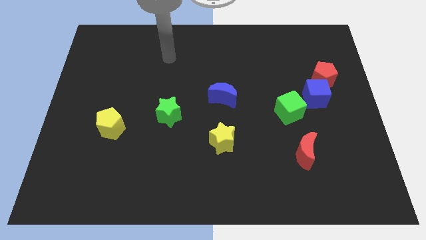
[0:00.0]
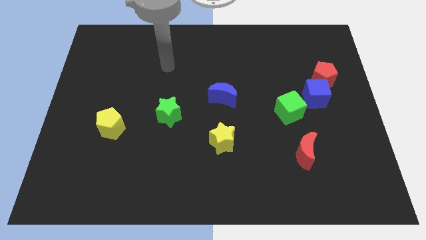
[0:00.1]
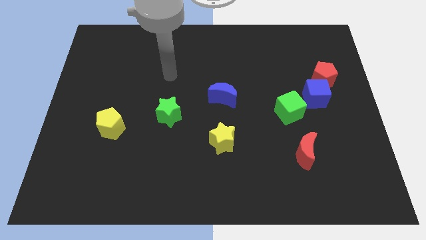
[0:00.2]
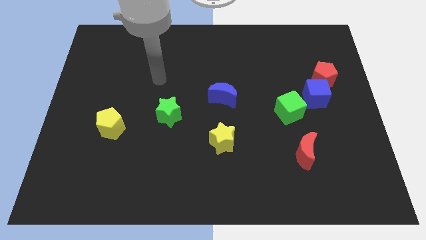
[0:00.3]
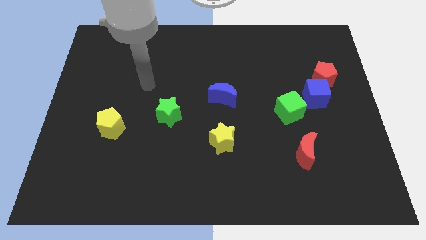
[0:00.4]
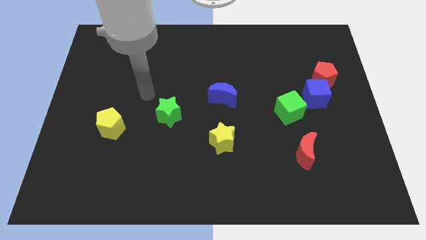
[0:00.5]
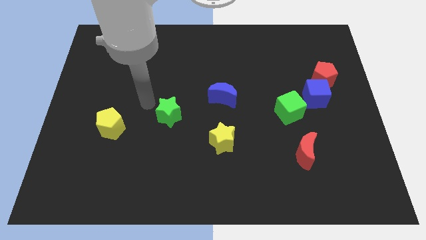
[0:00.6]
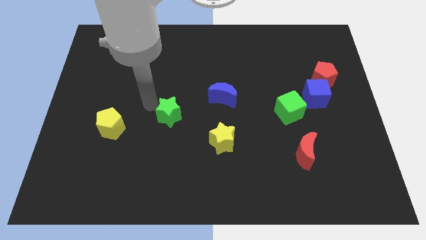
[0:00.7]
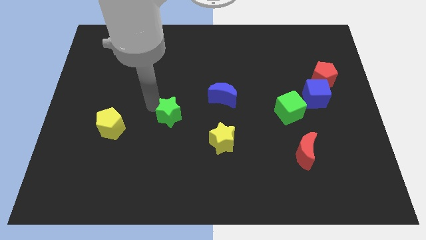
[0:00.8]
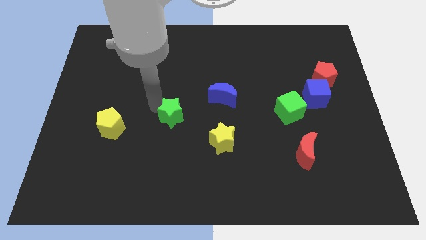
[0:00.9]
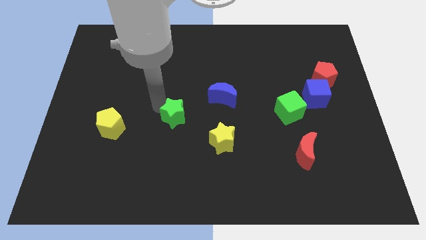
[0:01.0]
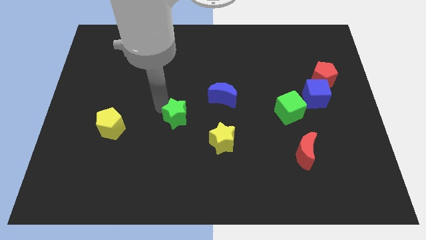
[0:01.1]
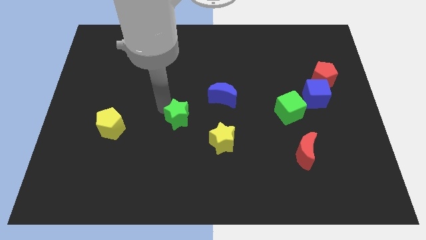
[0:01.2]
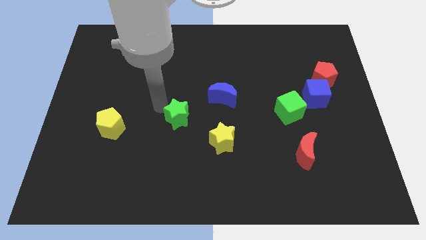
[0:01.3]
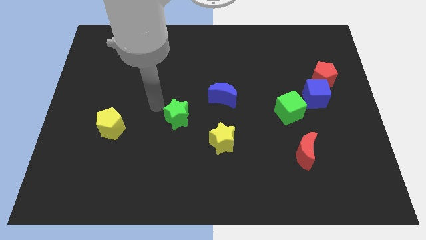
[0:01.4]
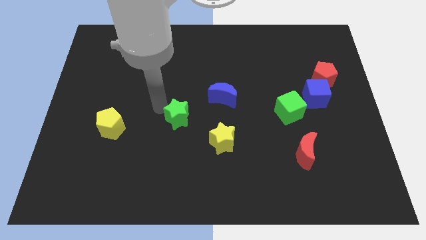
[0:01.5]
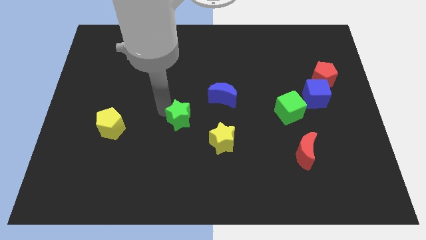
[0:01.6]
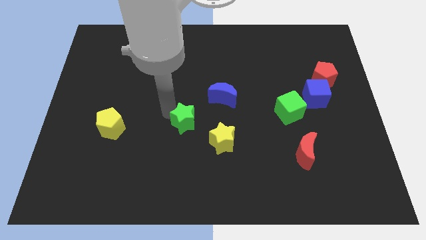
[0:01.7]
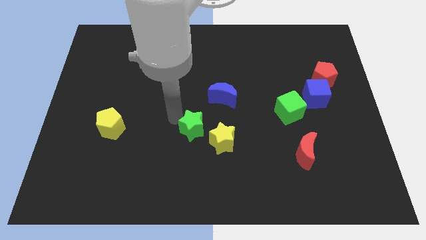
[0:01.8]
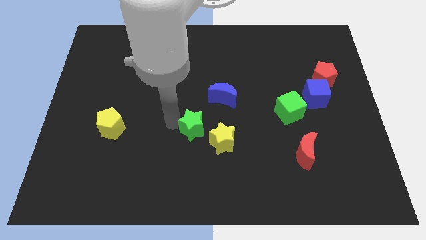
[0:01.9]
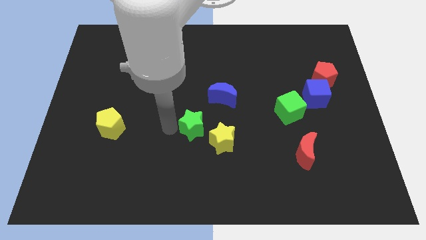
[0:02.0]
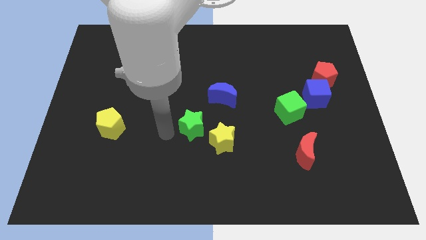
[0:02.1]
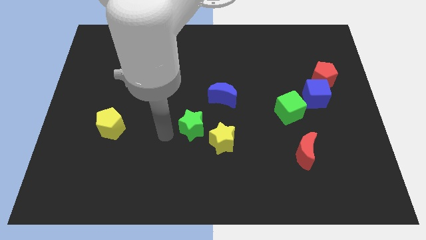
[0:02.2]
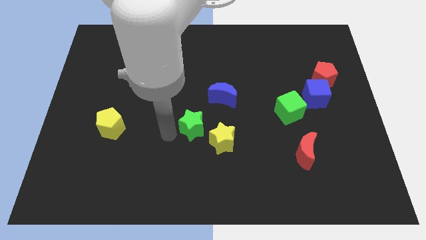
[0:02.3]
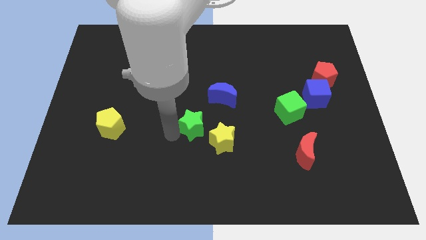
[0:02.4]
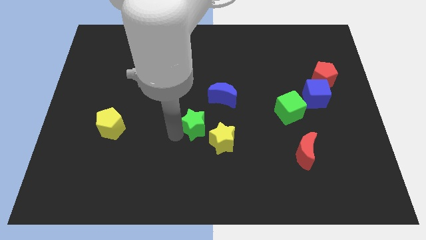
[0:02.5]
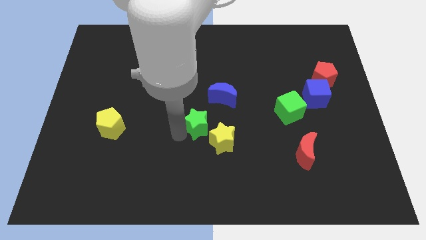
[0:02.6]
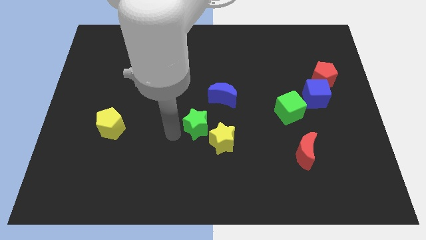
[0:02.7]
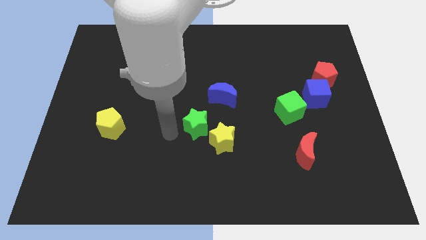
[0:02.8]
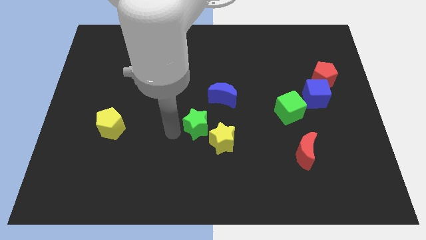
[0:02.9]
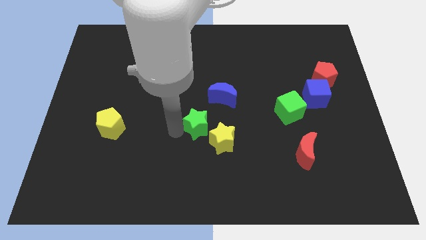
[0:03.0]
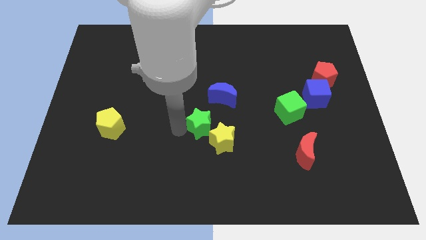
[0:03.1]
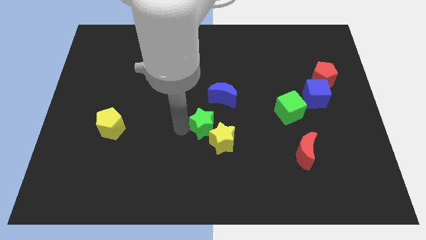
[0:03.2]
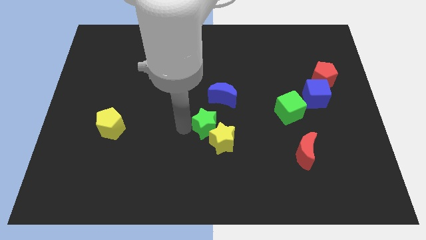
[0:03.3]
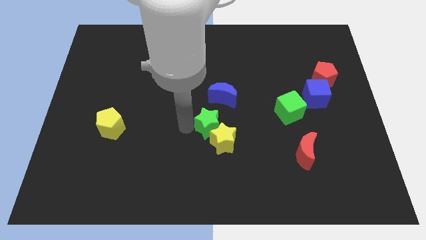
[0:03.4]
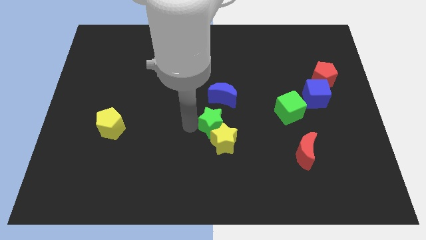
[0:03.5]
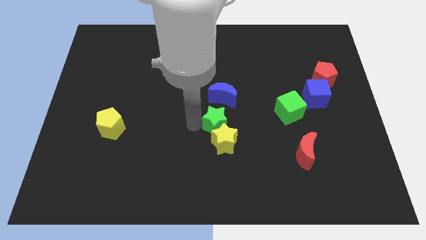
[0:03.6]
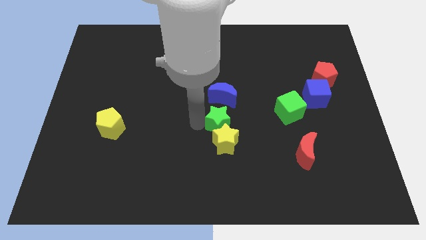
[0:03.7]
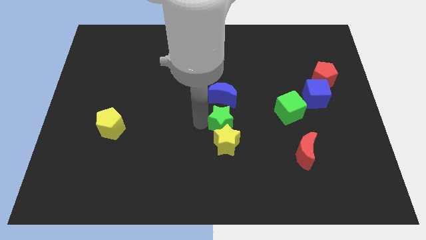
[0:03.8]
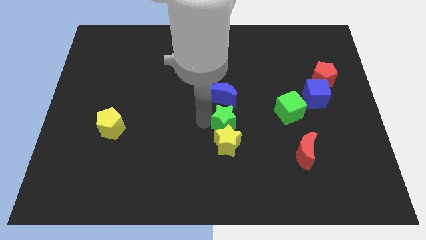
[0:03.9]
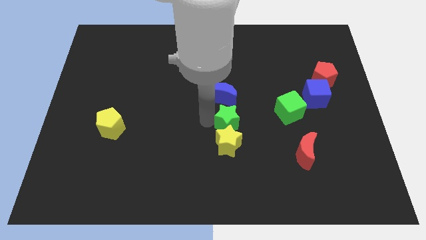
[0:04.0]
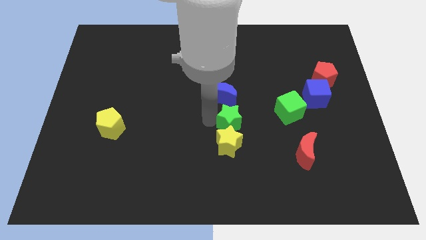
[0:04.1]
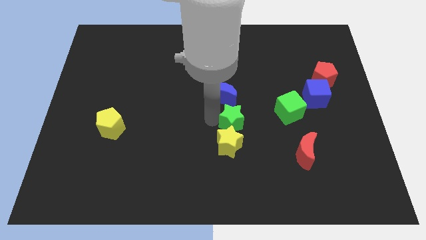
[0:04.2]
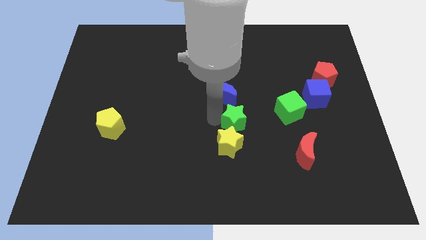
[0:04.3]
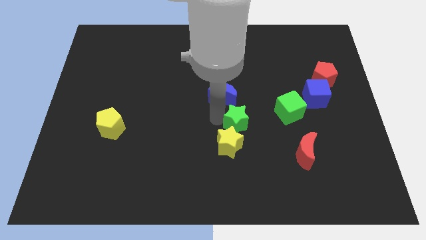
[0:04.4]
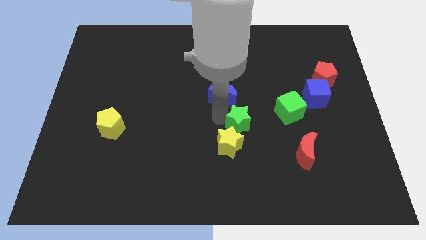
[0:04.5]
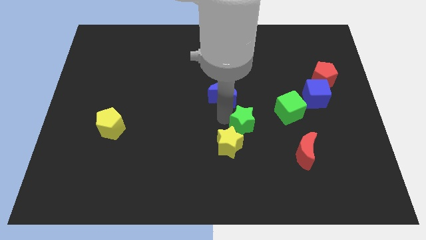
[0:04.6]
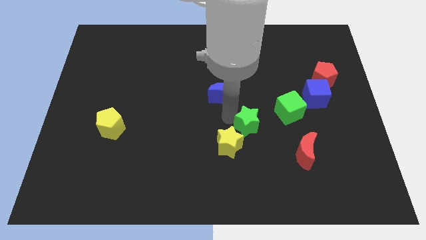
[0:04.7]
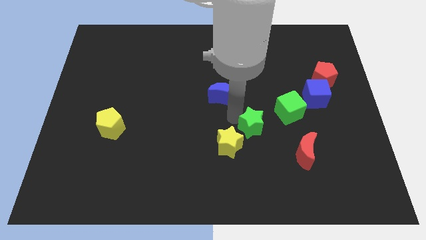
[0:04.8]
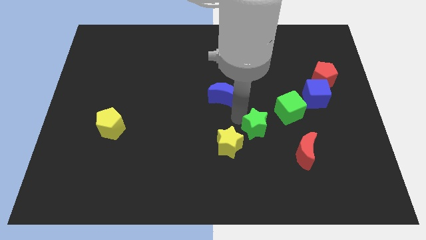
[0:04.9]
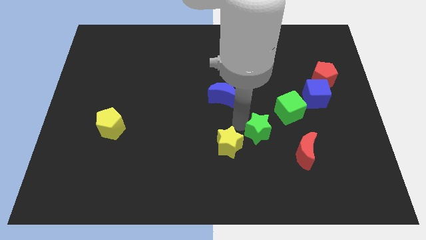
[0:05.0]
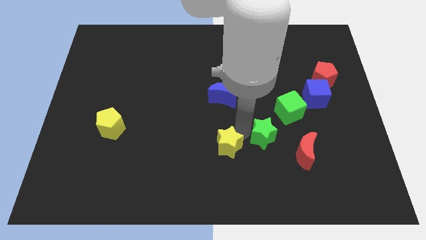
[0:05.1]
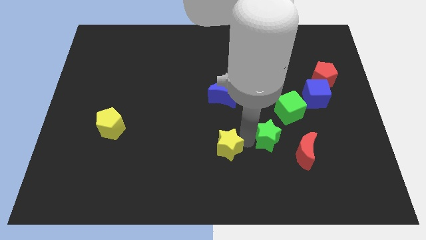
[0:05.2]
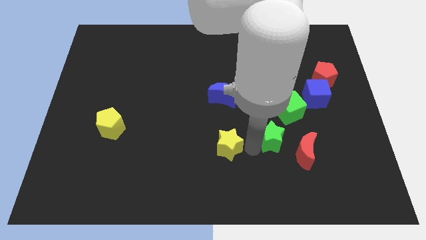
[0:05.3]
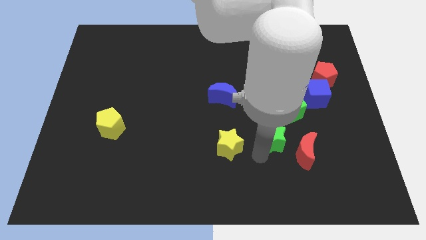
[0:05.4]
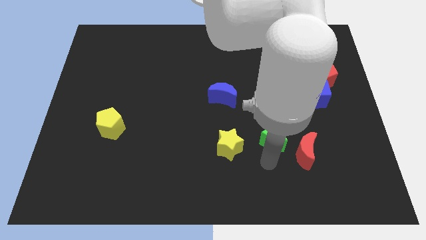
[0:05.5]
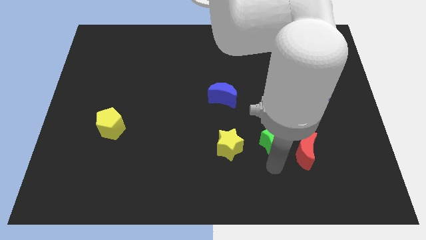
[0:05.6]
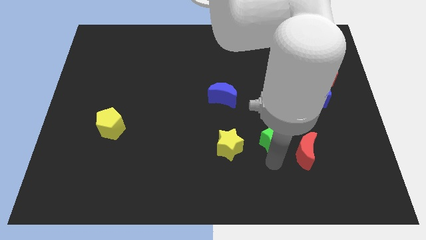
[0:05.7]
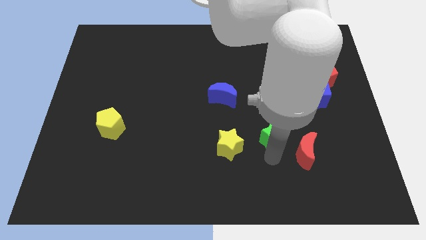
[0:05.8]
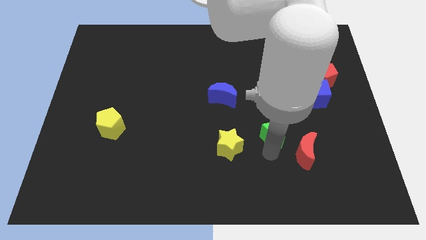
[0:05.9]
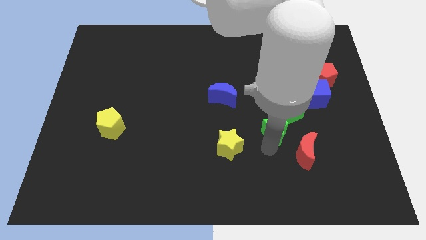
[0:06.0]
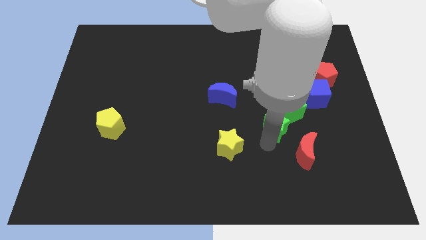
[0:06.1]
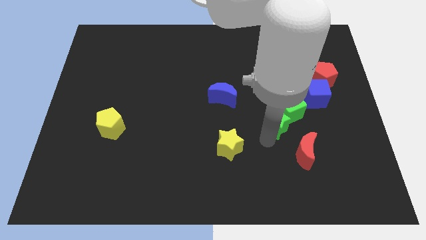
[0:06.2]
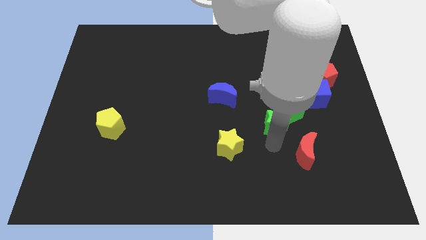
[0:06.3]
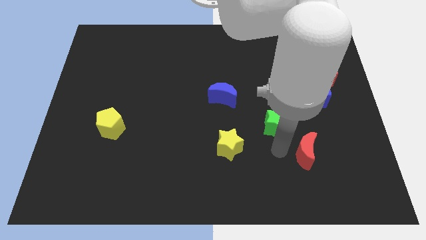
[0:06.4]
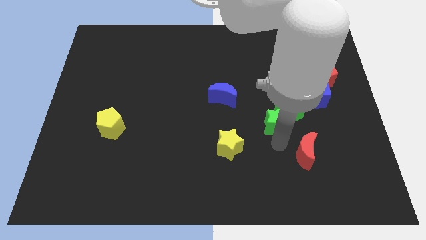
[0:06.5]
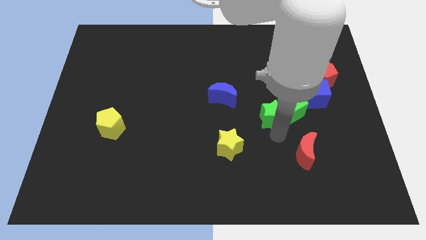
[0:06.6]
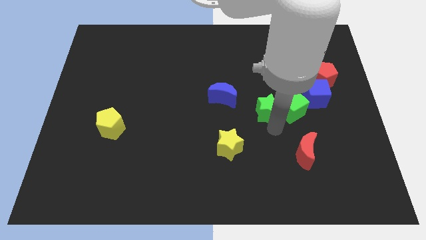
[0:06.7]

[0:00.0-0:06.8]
slide the green star just left of the blue cube
